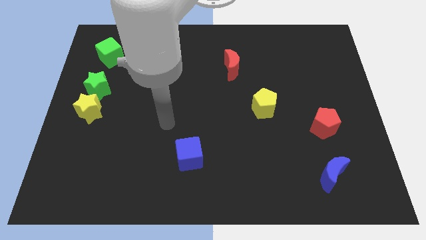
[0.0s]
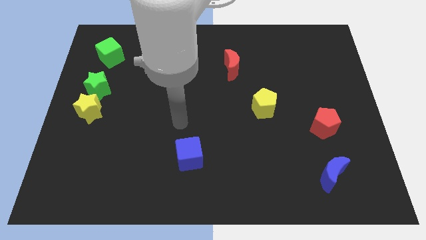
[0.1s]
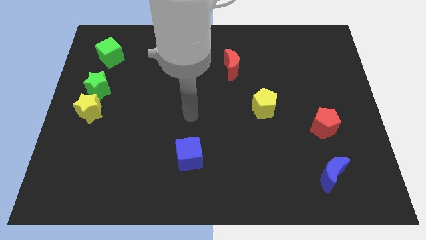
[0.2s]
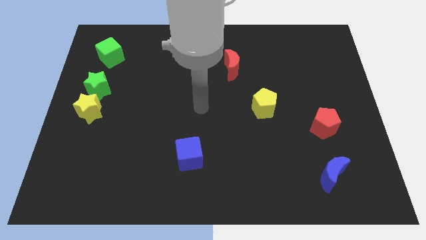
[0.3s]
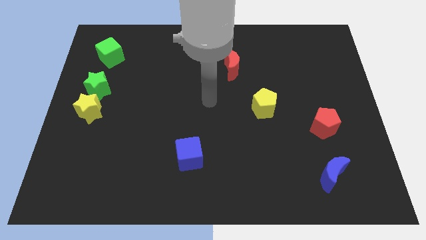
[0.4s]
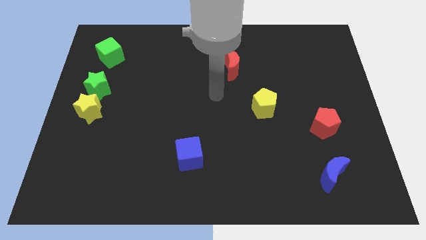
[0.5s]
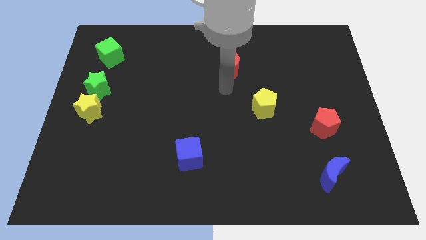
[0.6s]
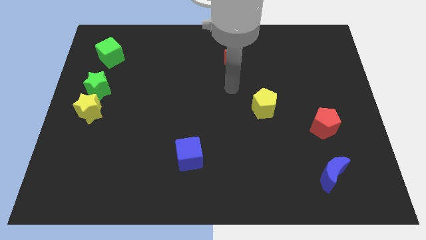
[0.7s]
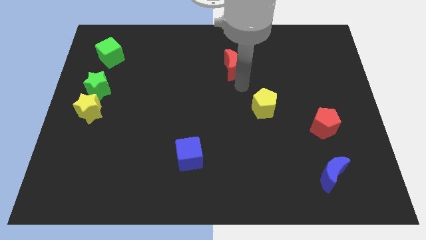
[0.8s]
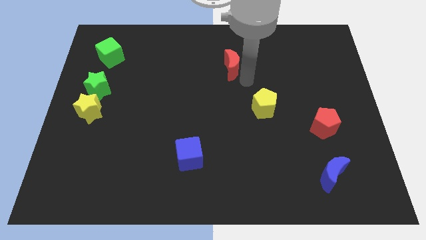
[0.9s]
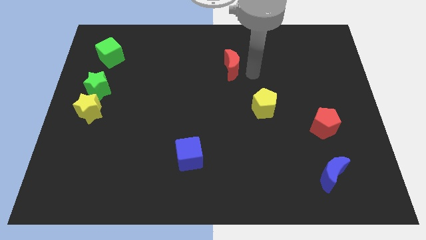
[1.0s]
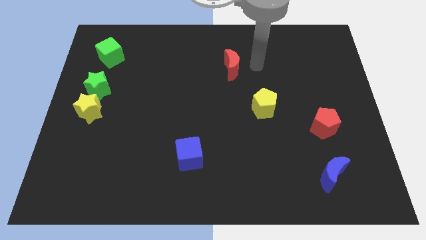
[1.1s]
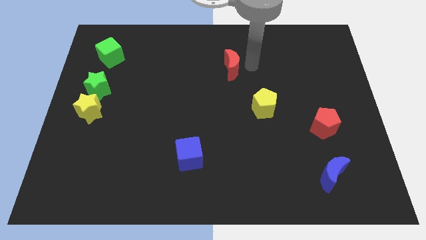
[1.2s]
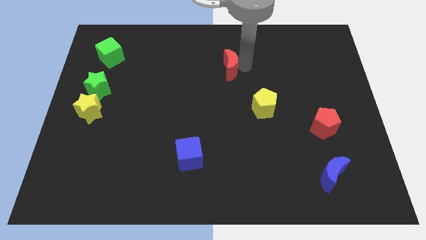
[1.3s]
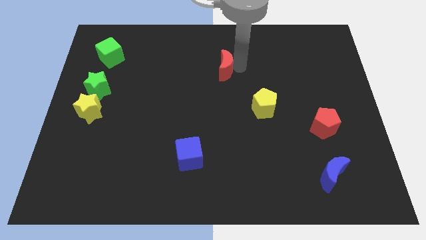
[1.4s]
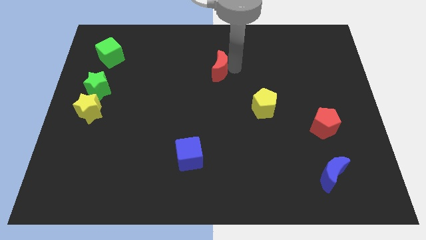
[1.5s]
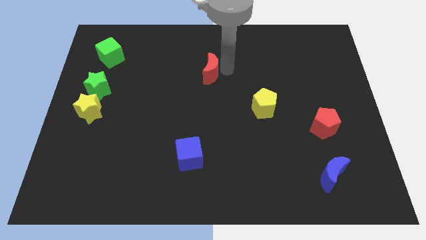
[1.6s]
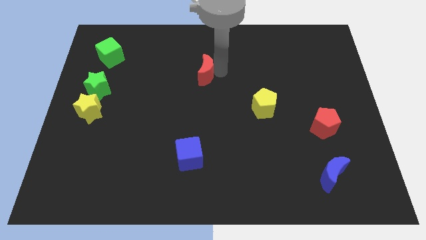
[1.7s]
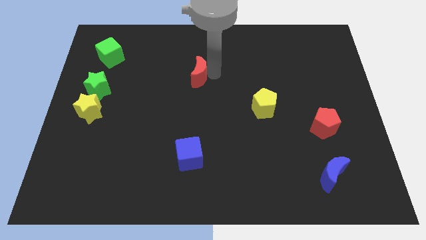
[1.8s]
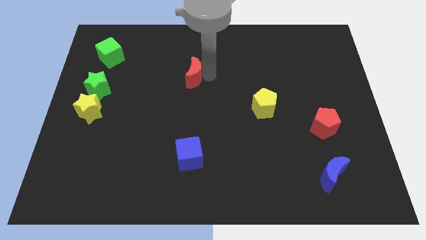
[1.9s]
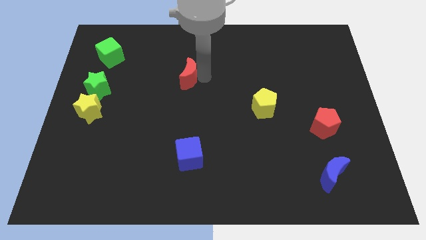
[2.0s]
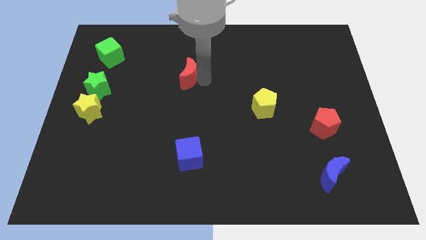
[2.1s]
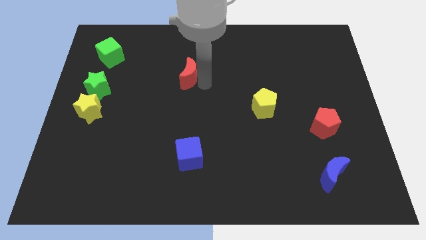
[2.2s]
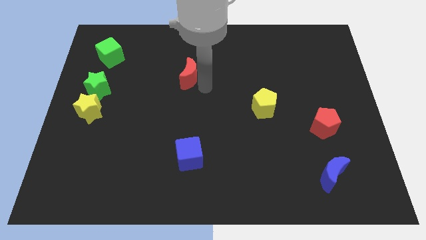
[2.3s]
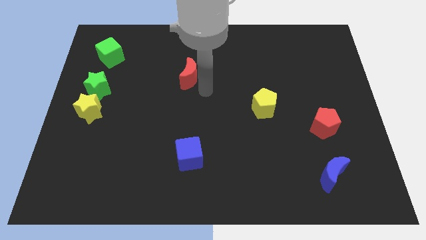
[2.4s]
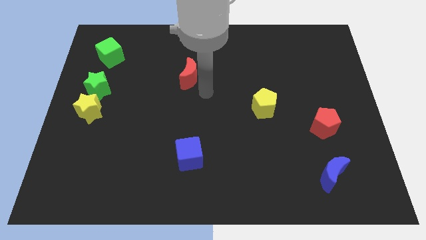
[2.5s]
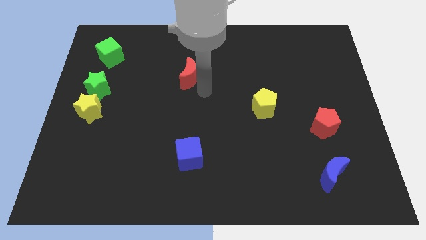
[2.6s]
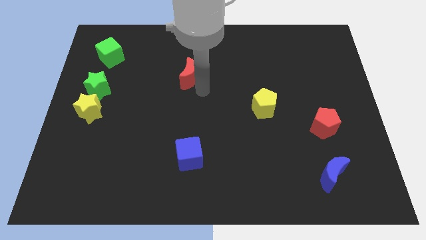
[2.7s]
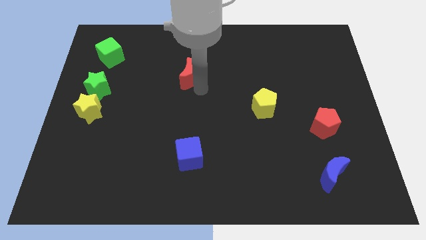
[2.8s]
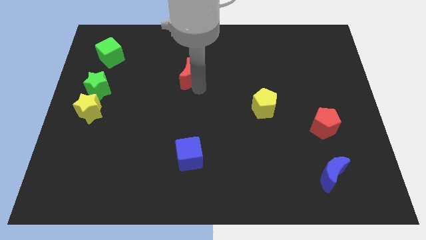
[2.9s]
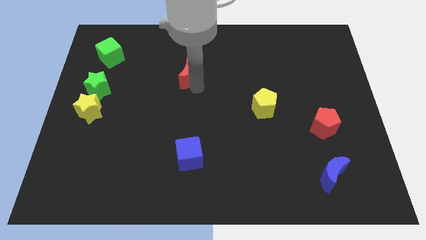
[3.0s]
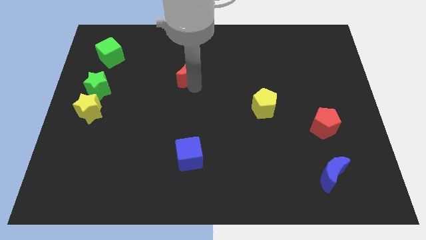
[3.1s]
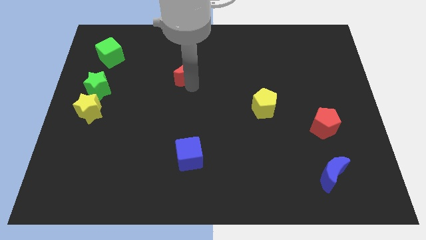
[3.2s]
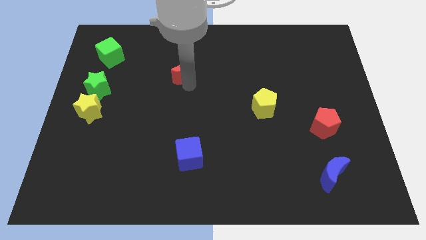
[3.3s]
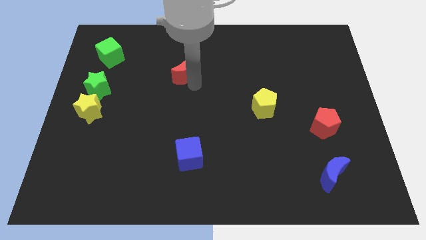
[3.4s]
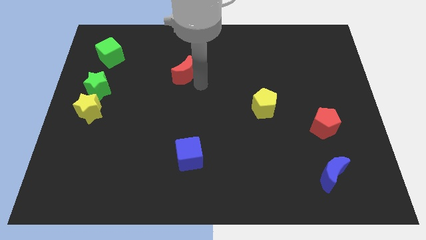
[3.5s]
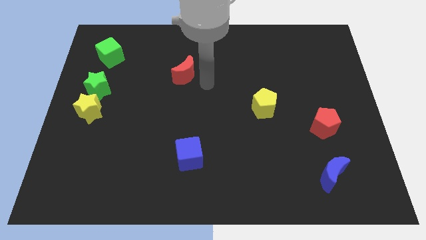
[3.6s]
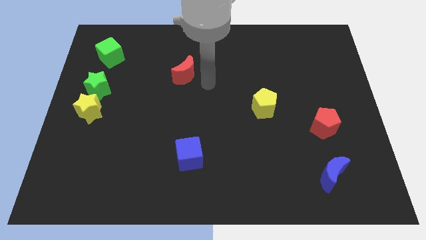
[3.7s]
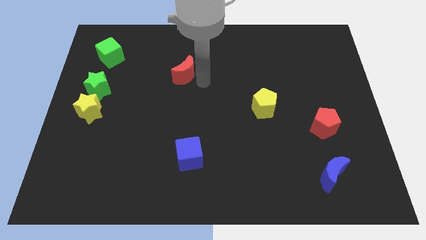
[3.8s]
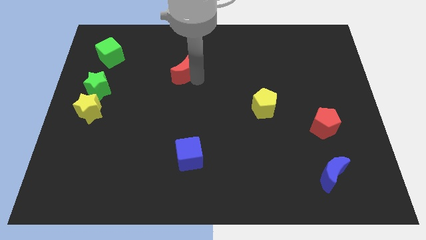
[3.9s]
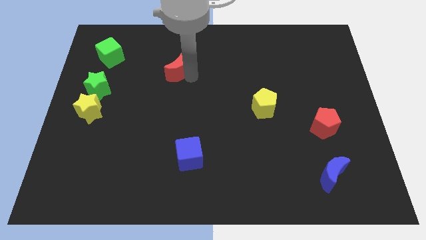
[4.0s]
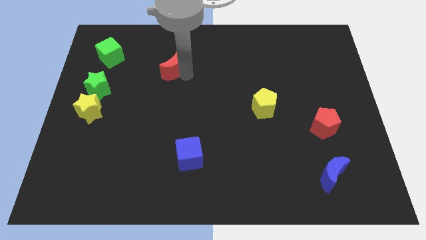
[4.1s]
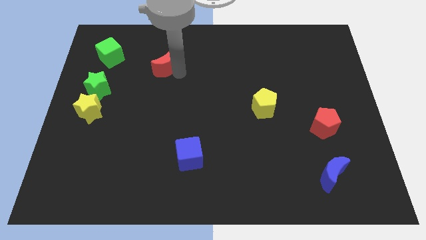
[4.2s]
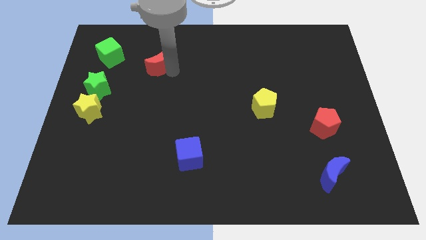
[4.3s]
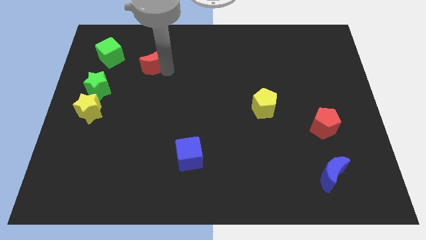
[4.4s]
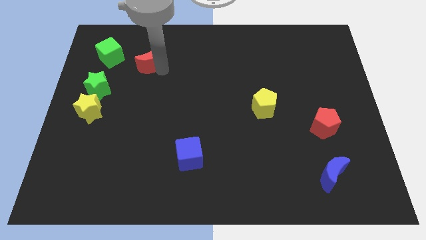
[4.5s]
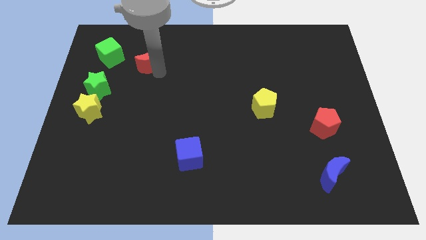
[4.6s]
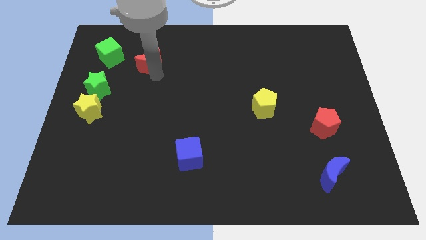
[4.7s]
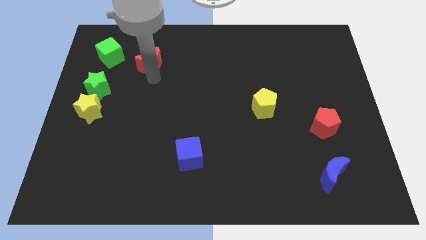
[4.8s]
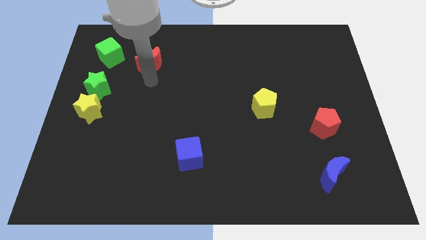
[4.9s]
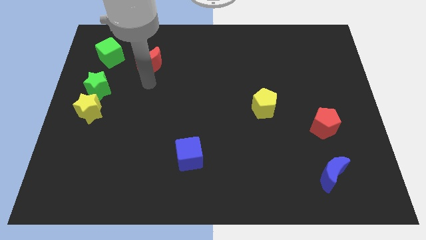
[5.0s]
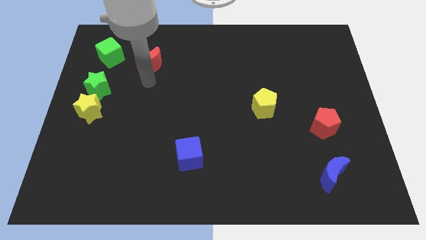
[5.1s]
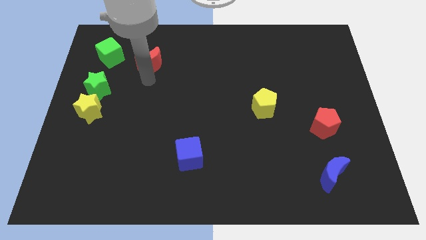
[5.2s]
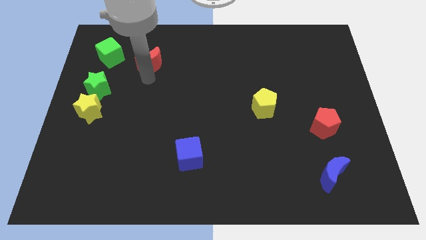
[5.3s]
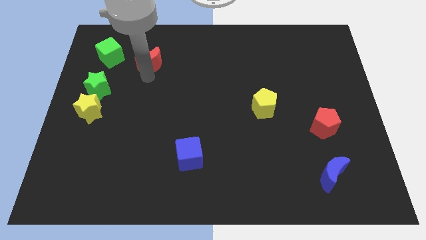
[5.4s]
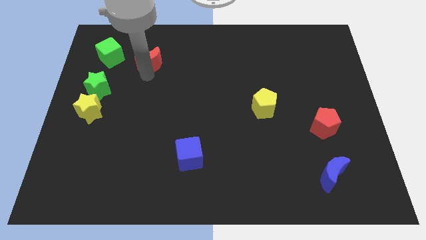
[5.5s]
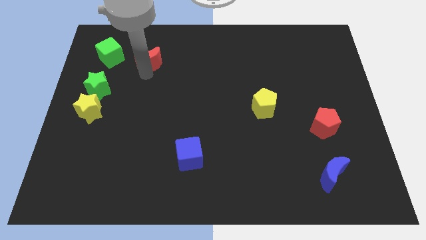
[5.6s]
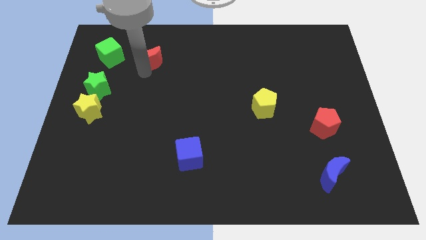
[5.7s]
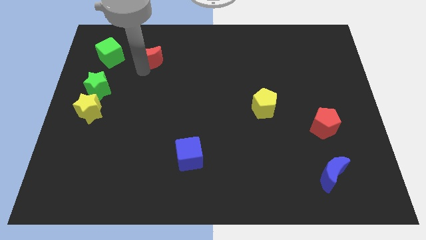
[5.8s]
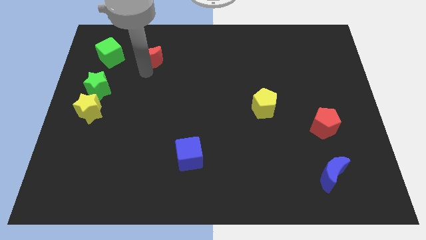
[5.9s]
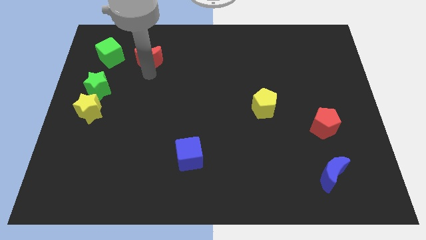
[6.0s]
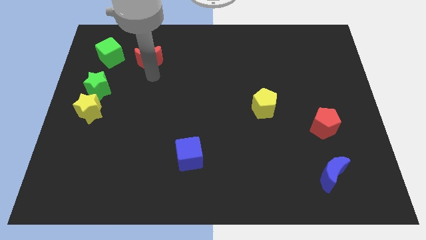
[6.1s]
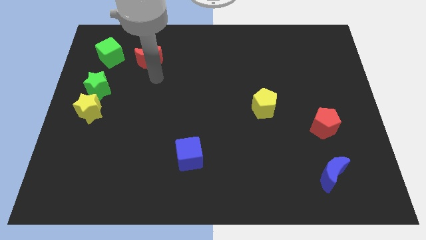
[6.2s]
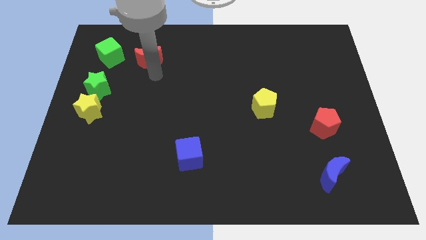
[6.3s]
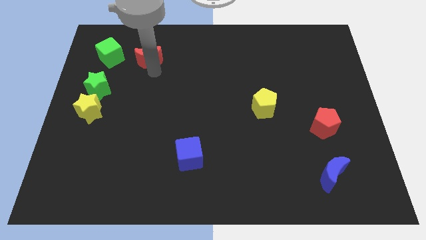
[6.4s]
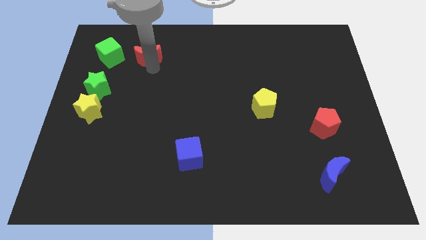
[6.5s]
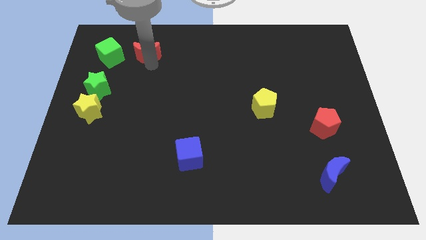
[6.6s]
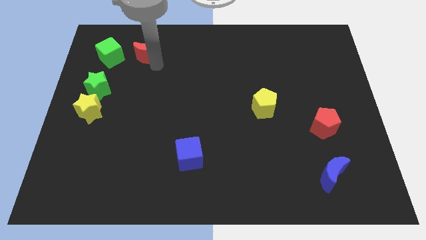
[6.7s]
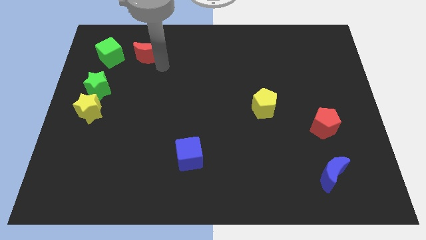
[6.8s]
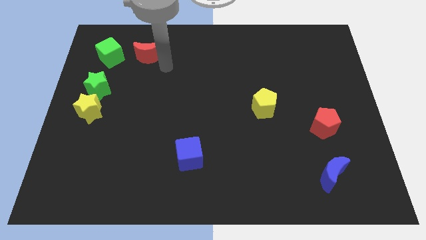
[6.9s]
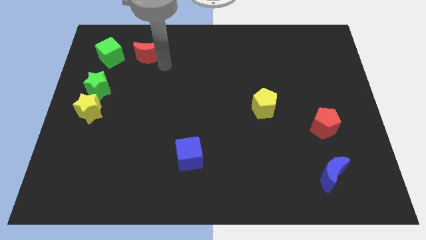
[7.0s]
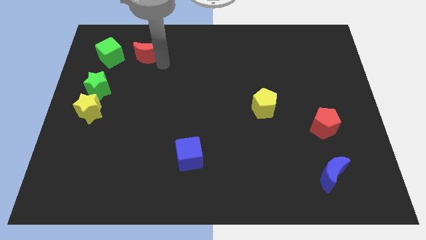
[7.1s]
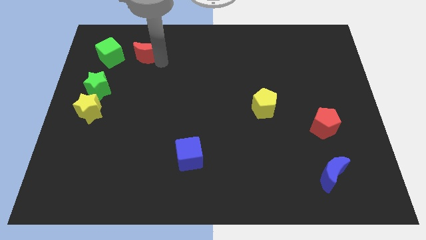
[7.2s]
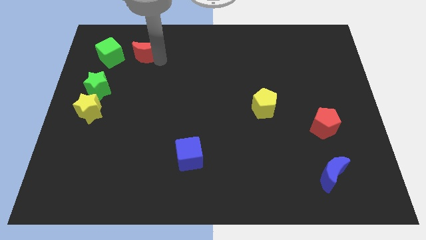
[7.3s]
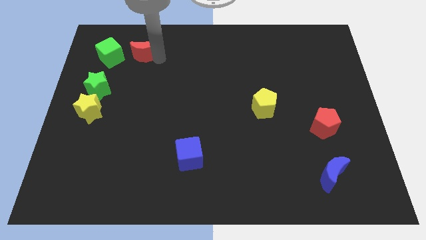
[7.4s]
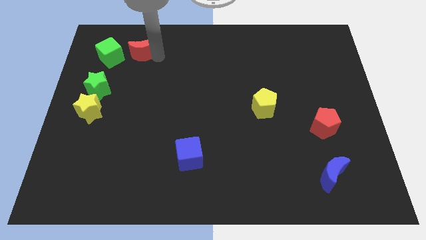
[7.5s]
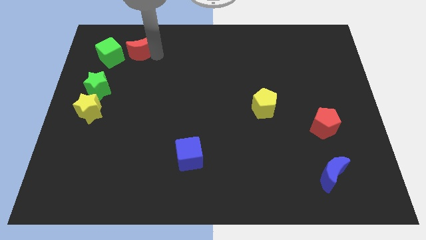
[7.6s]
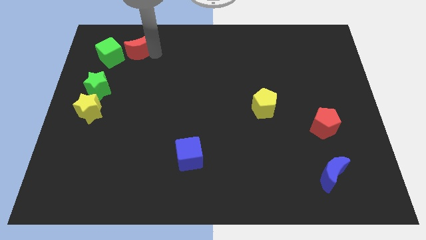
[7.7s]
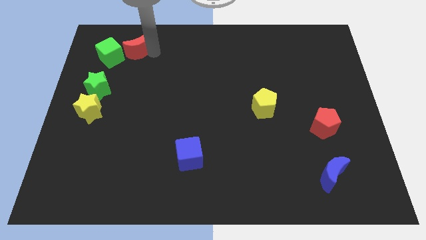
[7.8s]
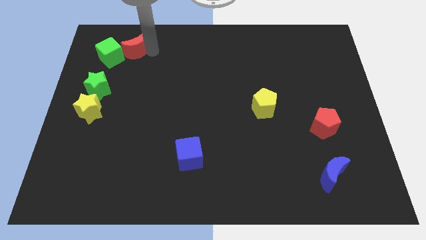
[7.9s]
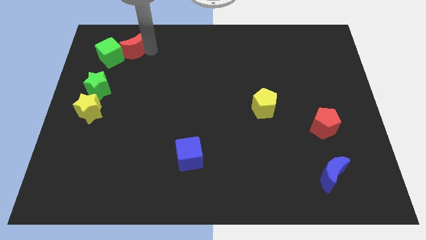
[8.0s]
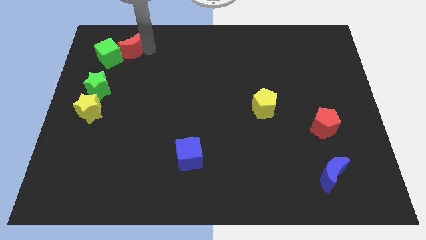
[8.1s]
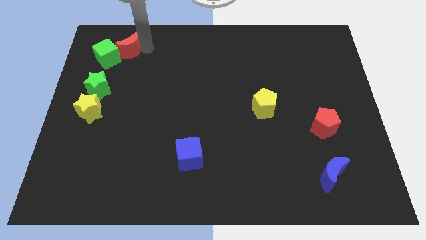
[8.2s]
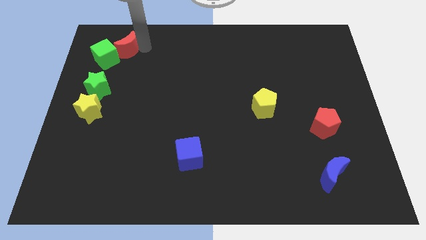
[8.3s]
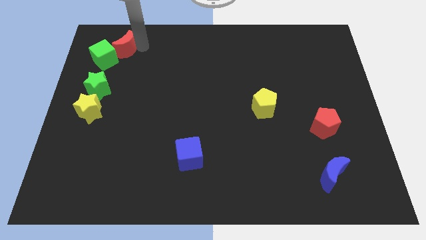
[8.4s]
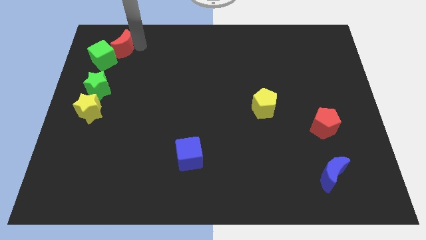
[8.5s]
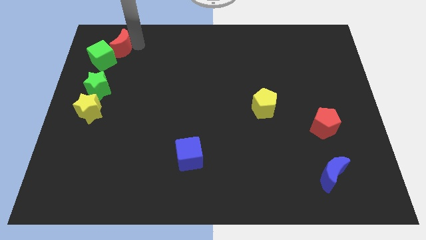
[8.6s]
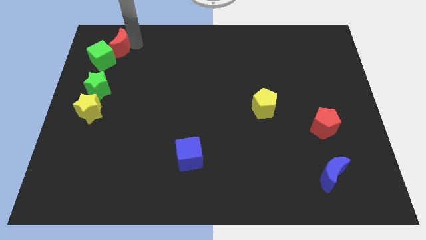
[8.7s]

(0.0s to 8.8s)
put the red moon to the top of the green star
